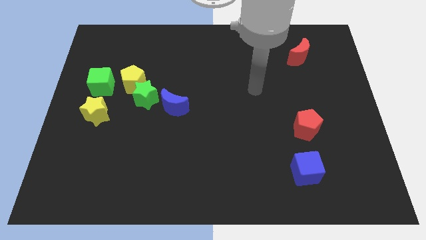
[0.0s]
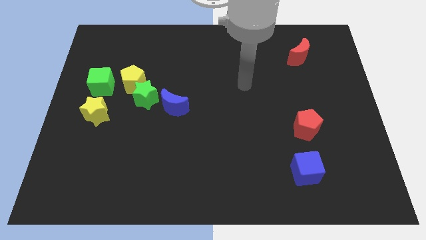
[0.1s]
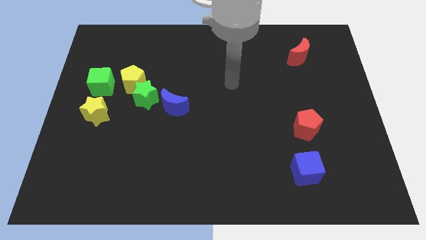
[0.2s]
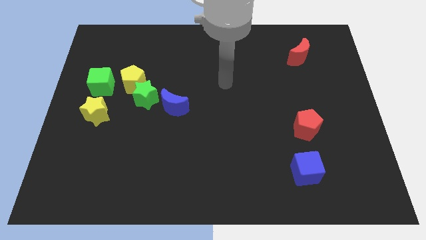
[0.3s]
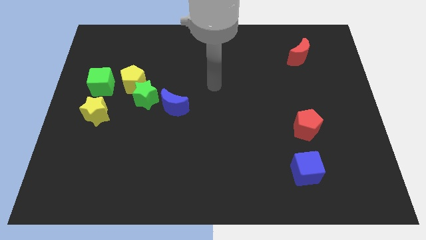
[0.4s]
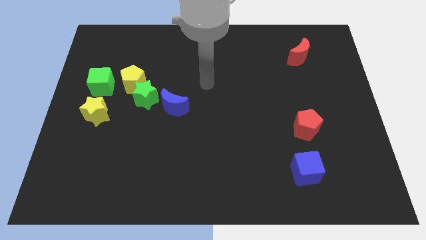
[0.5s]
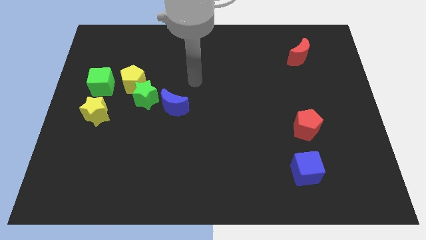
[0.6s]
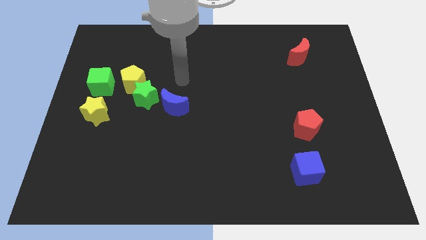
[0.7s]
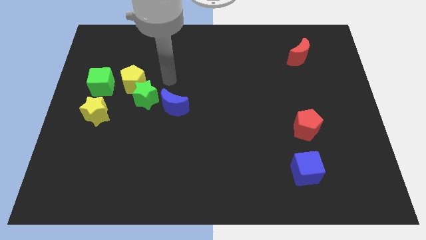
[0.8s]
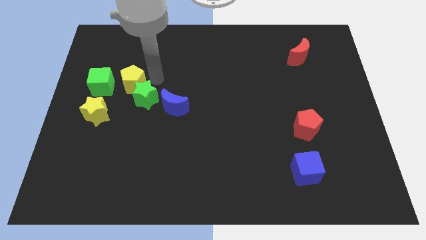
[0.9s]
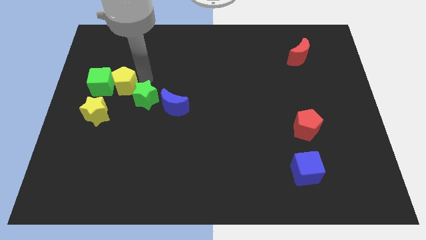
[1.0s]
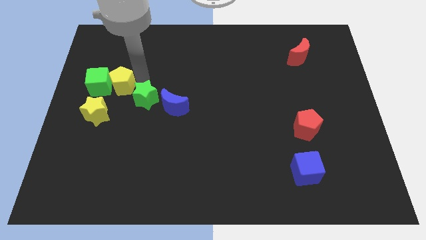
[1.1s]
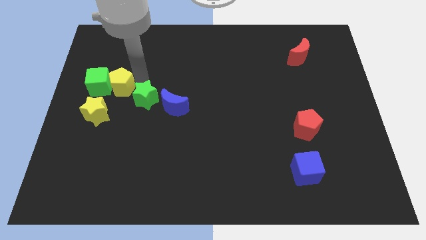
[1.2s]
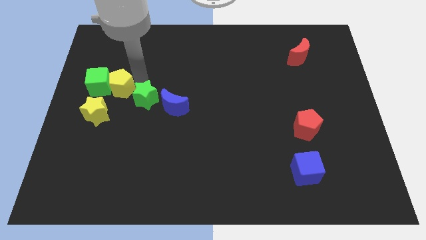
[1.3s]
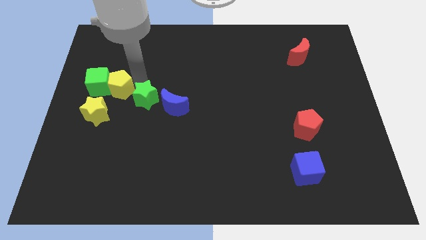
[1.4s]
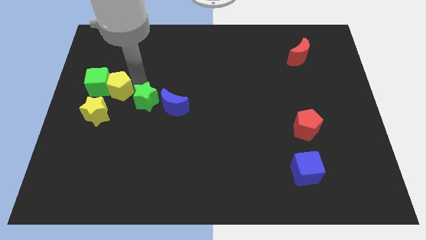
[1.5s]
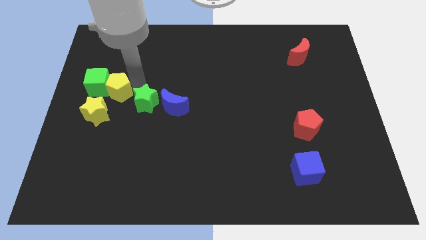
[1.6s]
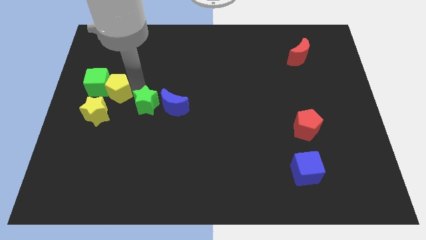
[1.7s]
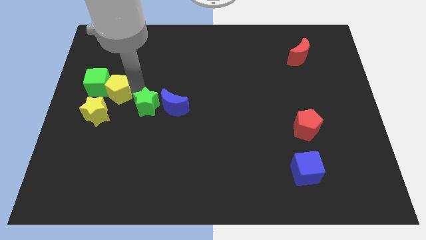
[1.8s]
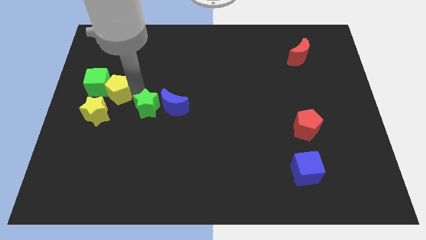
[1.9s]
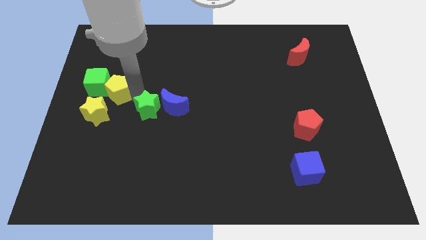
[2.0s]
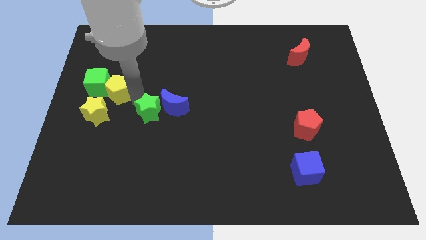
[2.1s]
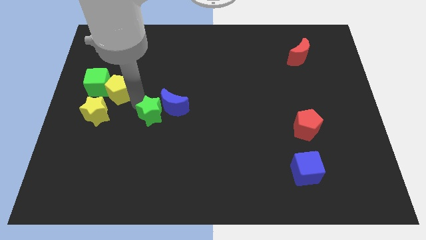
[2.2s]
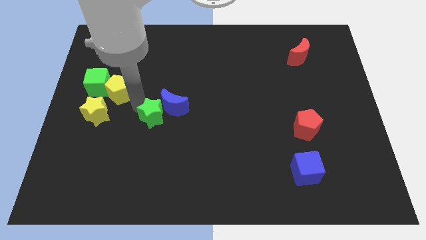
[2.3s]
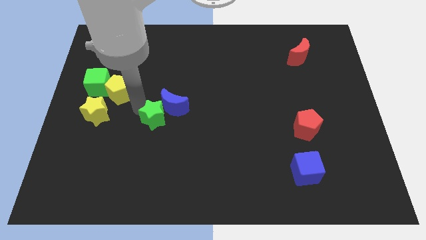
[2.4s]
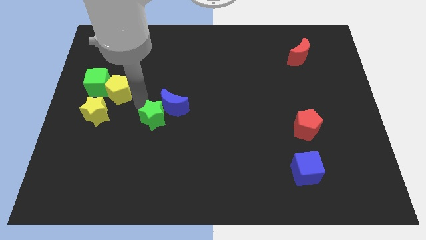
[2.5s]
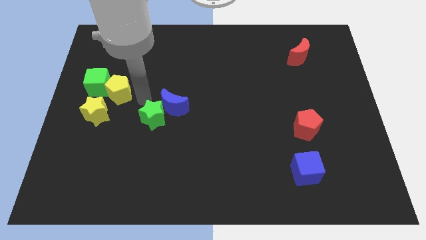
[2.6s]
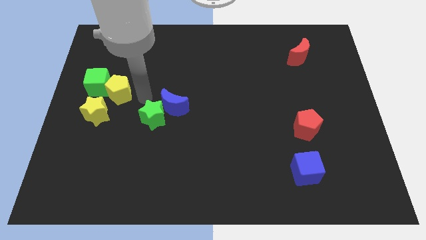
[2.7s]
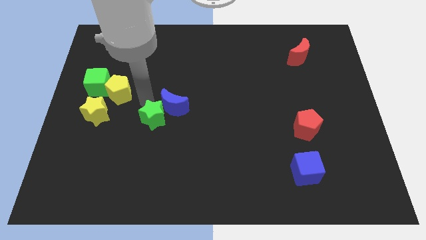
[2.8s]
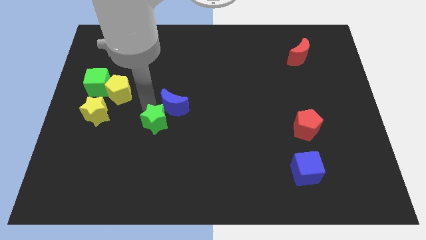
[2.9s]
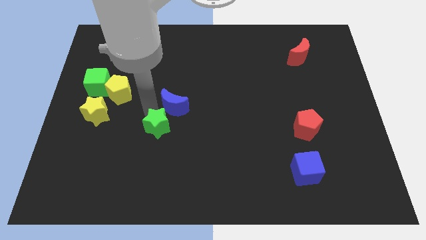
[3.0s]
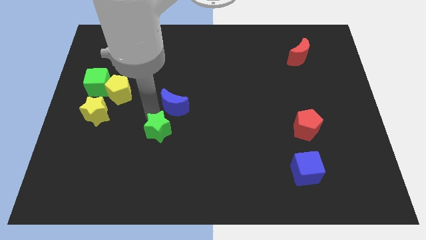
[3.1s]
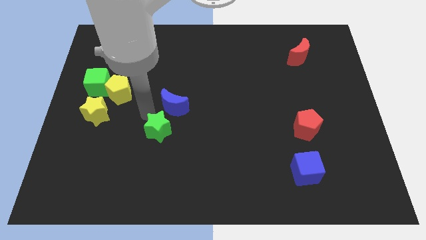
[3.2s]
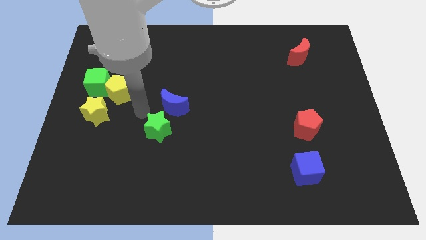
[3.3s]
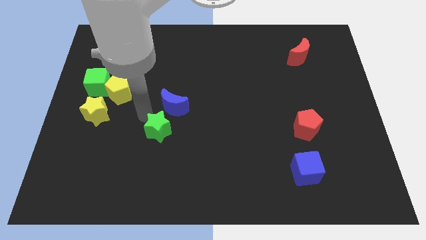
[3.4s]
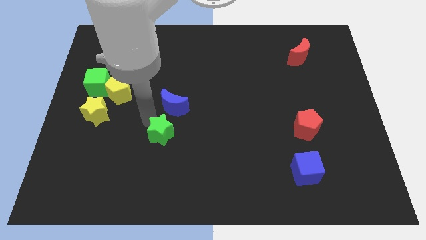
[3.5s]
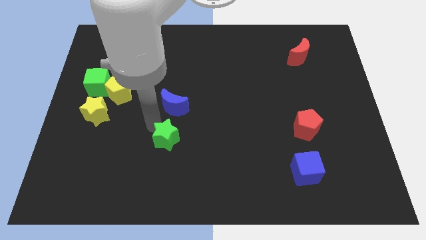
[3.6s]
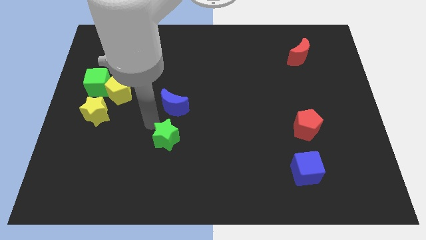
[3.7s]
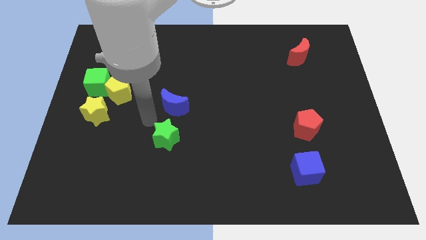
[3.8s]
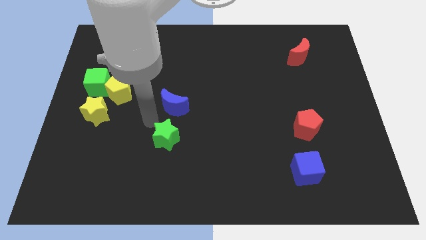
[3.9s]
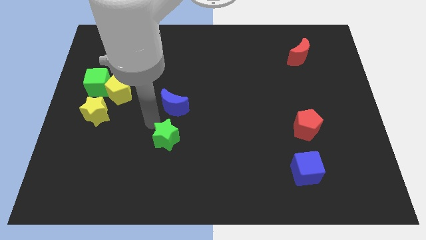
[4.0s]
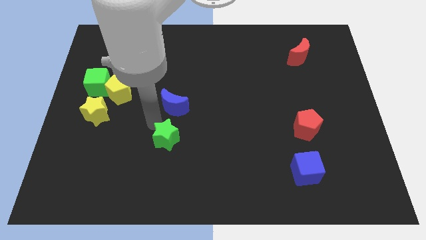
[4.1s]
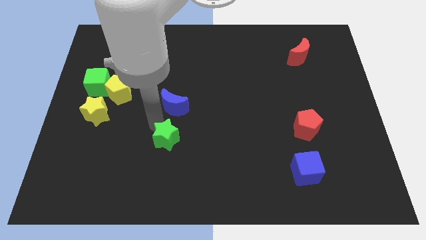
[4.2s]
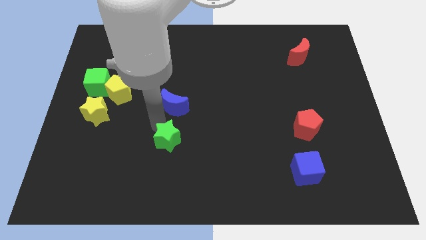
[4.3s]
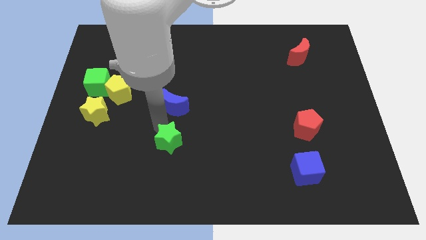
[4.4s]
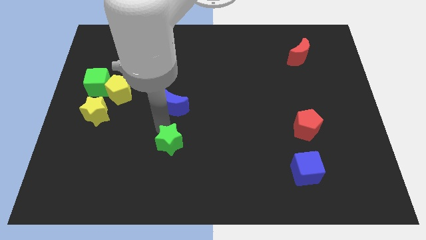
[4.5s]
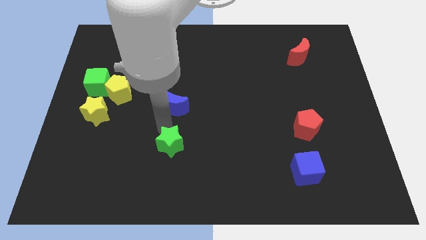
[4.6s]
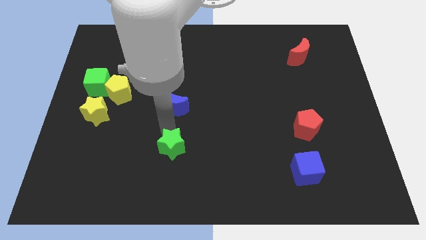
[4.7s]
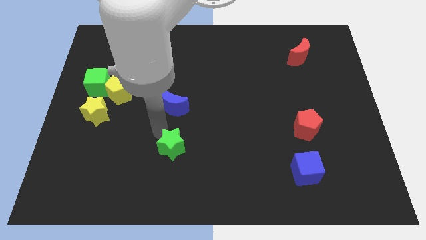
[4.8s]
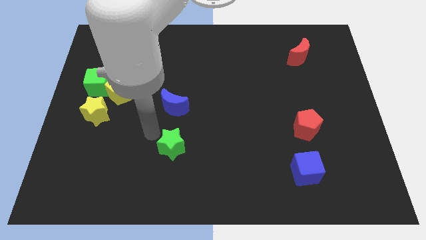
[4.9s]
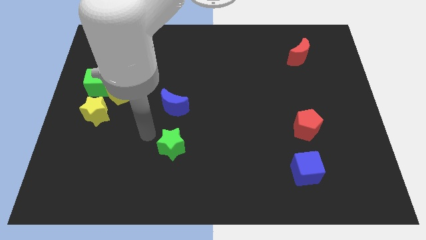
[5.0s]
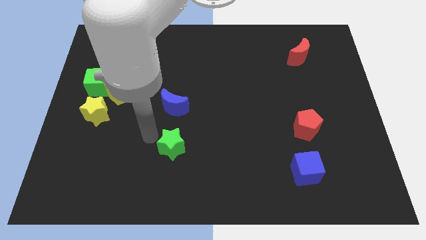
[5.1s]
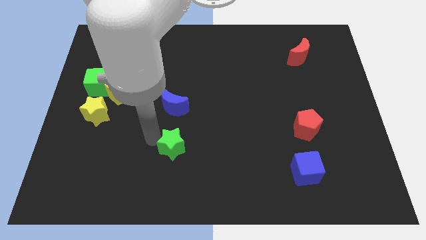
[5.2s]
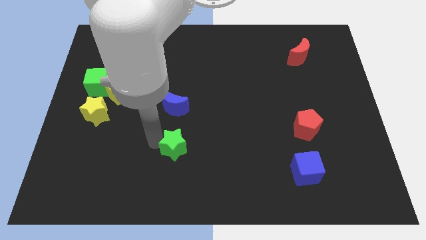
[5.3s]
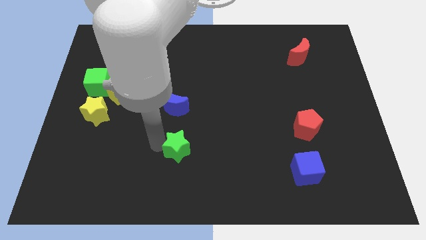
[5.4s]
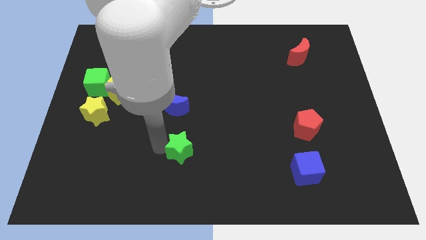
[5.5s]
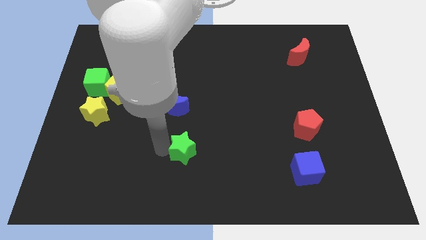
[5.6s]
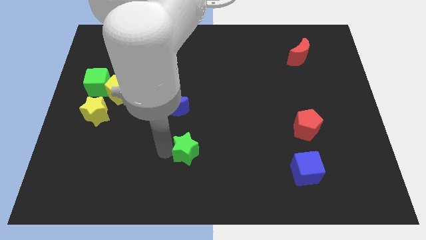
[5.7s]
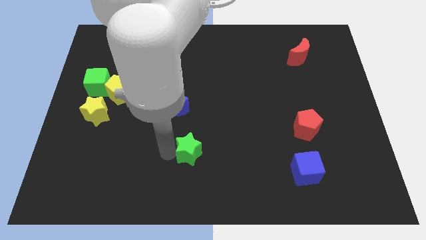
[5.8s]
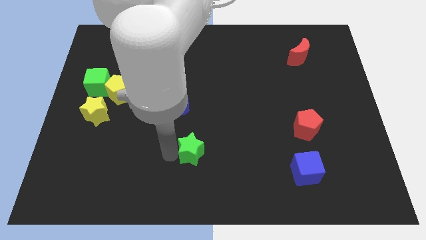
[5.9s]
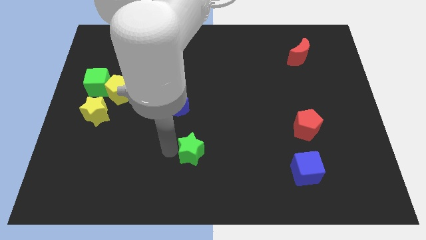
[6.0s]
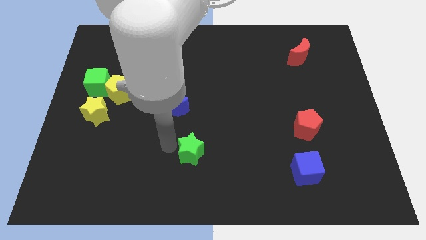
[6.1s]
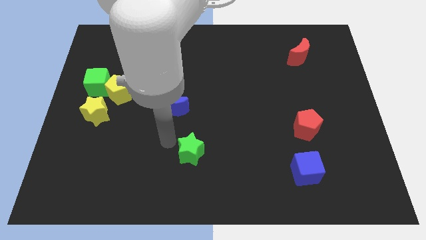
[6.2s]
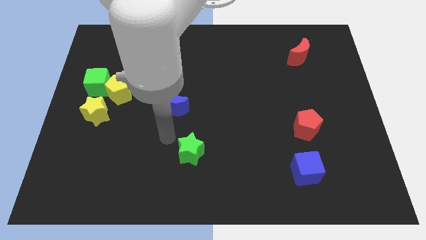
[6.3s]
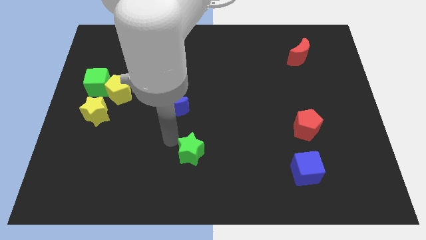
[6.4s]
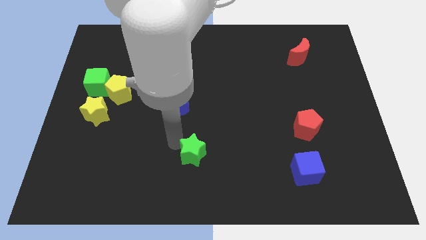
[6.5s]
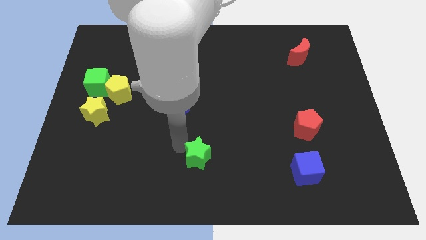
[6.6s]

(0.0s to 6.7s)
slide the green star down and then to the right

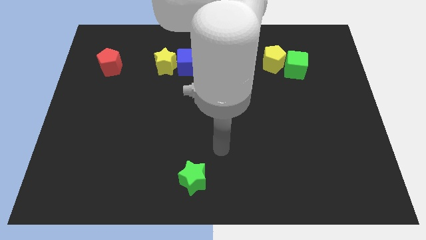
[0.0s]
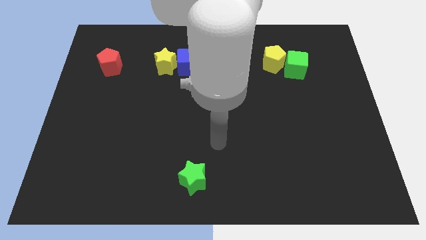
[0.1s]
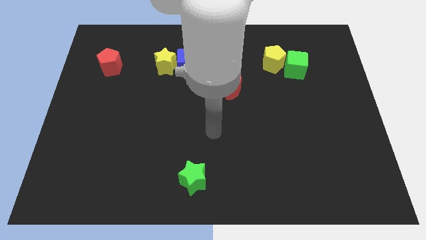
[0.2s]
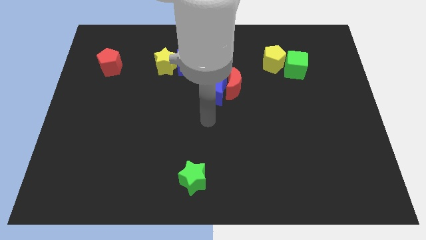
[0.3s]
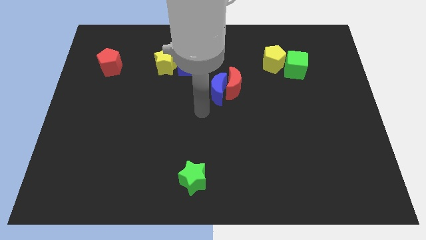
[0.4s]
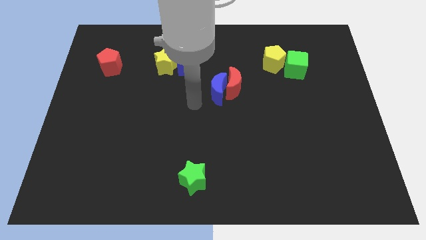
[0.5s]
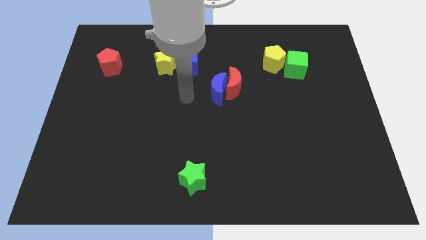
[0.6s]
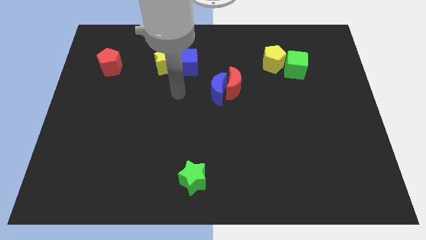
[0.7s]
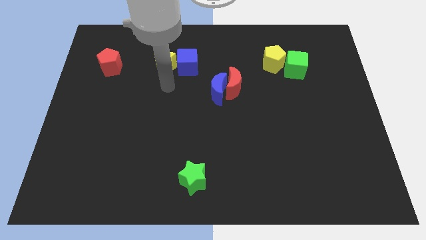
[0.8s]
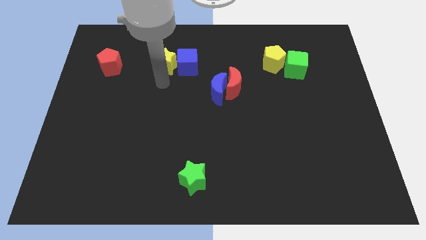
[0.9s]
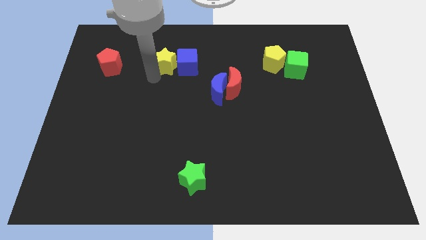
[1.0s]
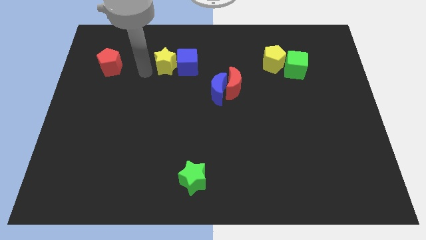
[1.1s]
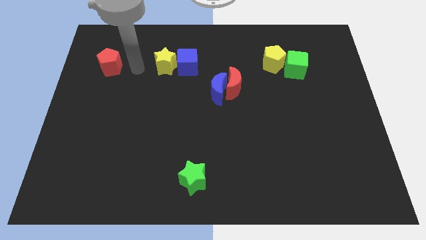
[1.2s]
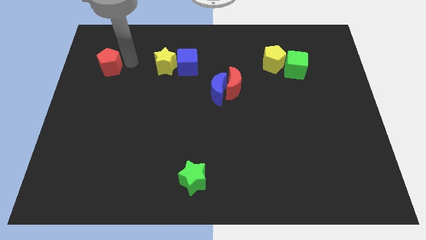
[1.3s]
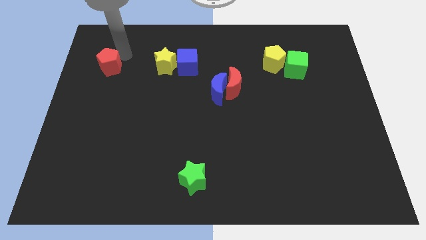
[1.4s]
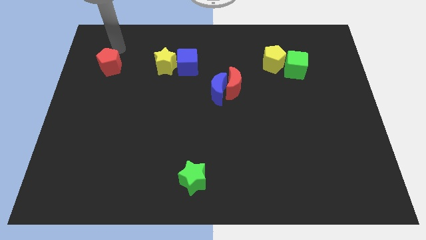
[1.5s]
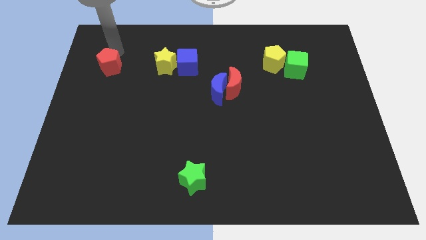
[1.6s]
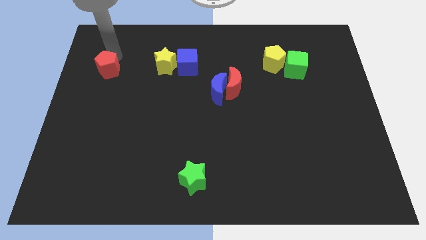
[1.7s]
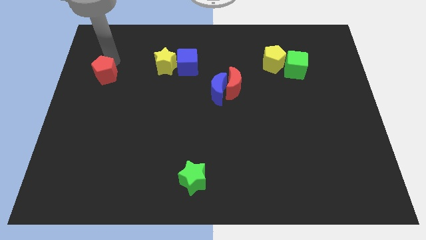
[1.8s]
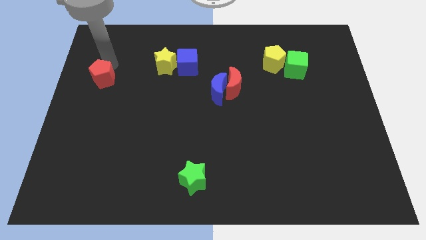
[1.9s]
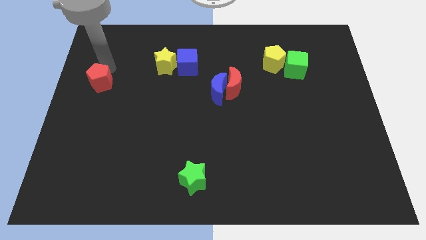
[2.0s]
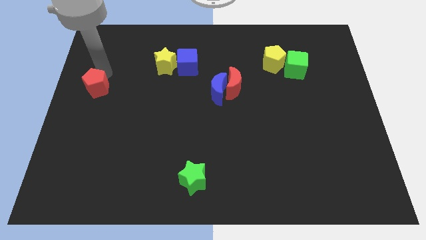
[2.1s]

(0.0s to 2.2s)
slightly push the red pentagon downwards
